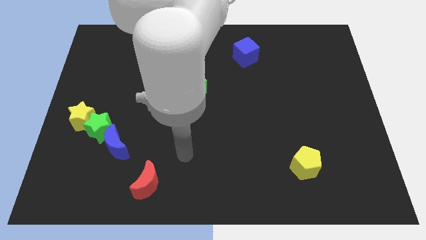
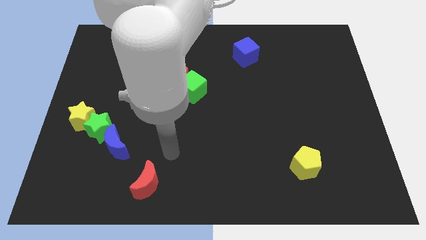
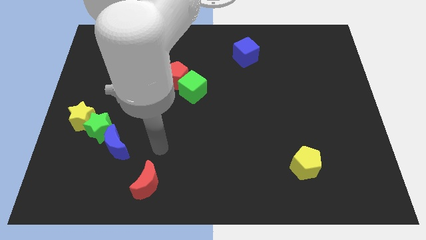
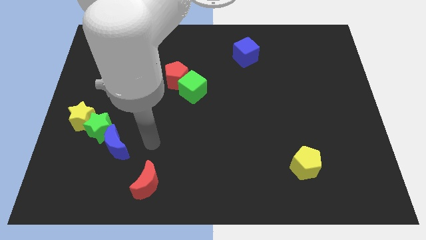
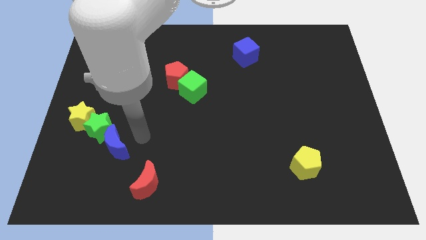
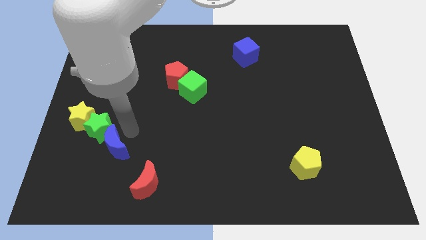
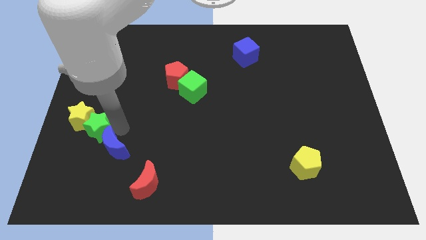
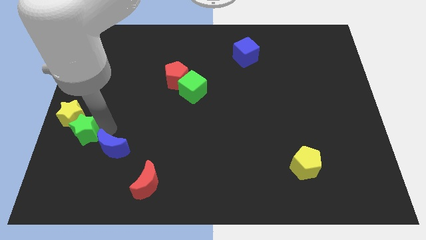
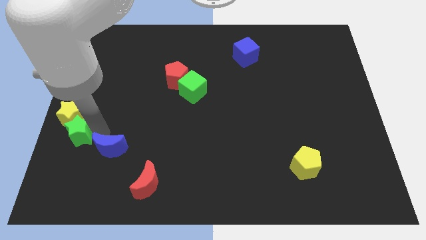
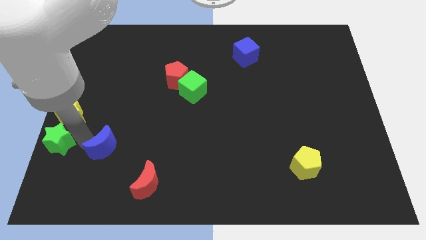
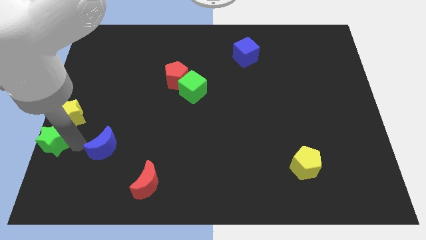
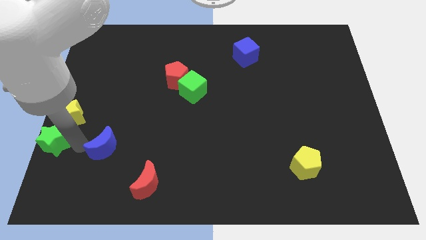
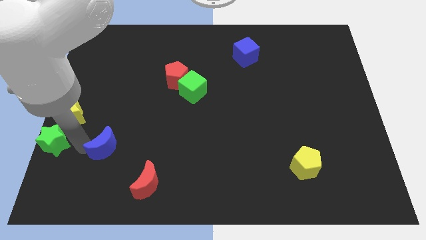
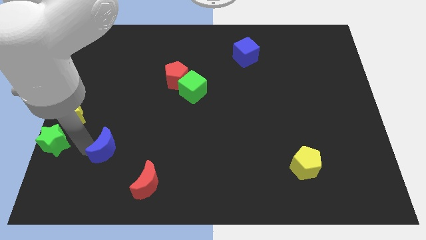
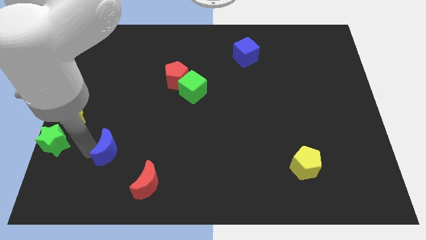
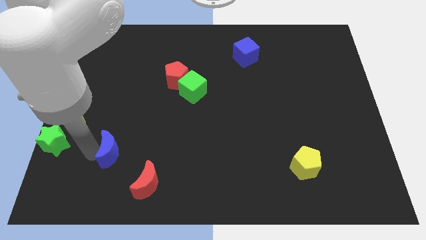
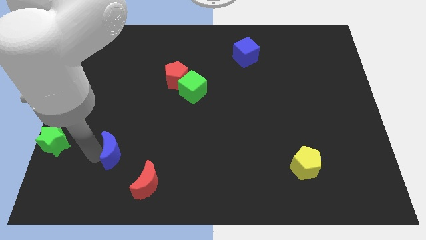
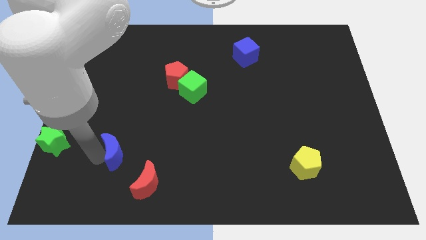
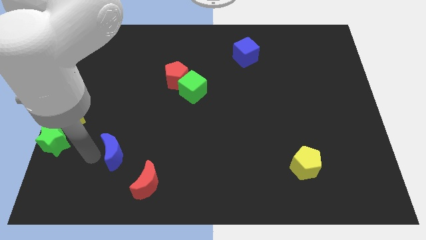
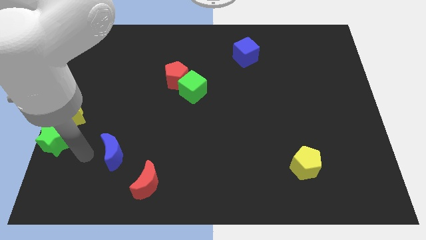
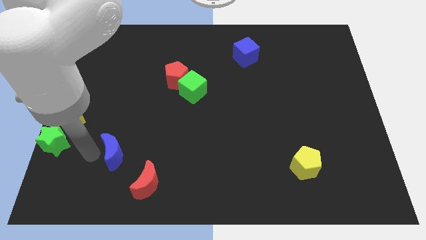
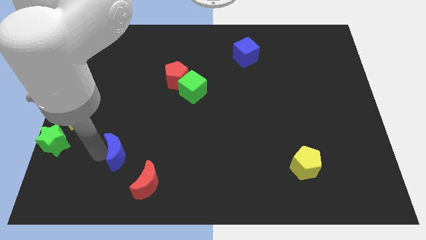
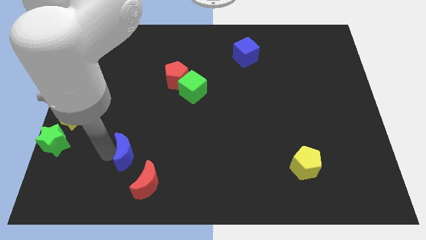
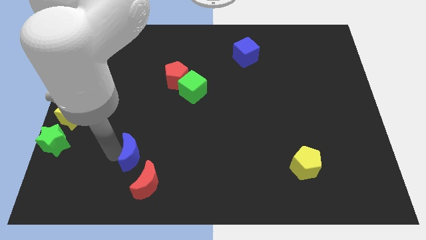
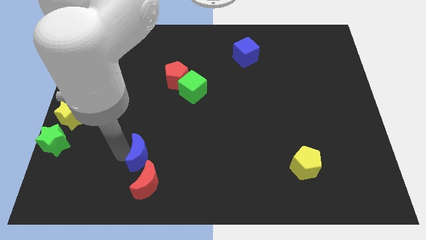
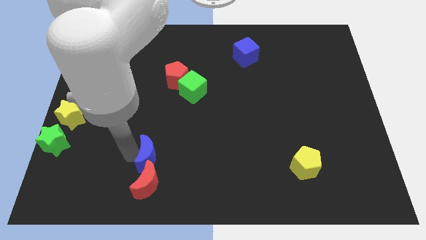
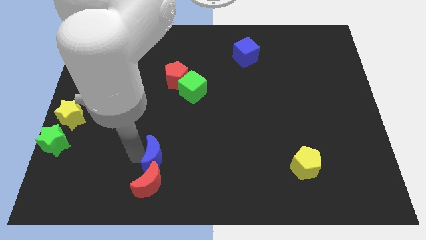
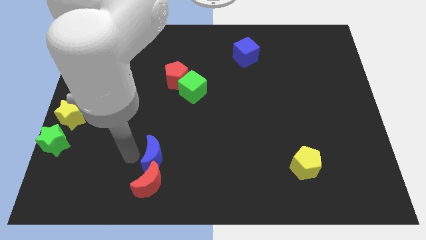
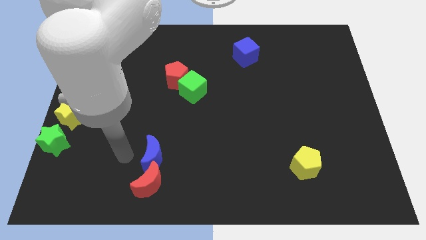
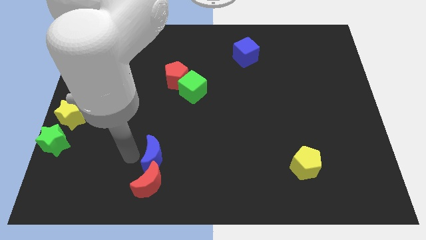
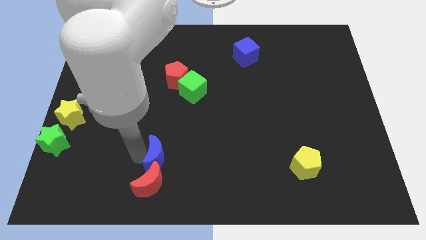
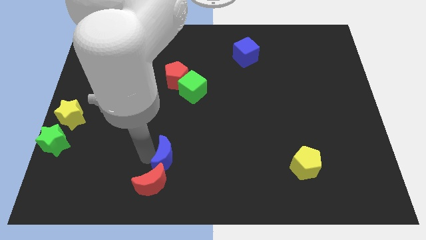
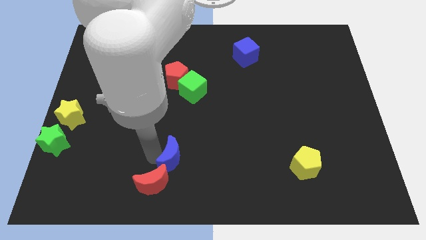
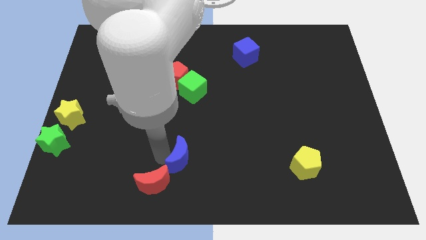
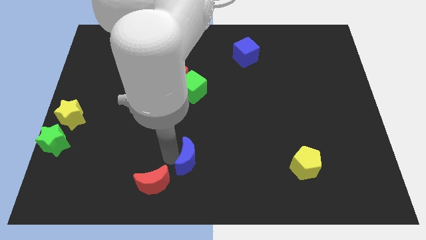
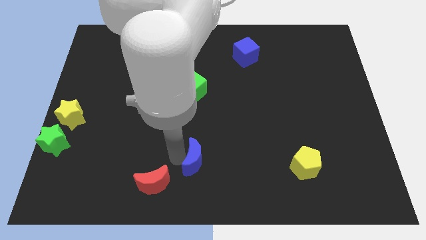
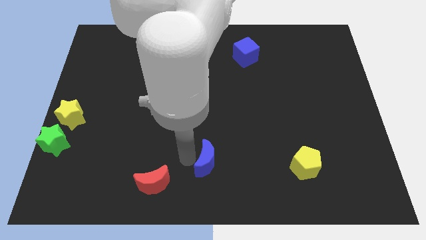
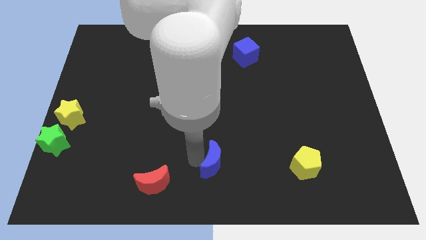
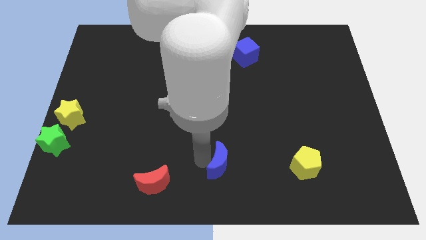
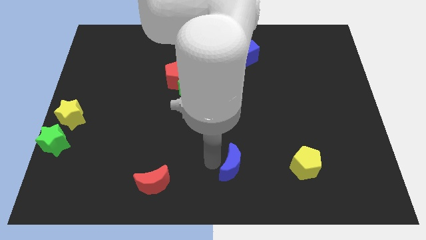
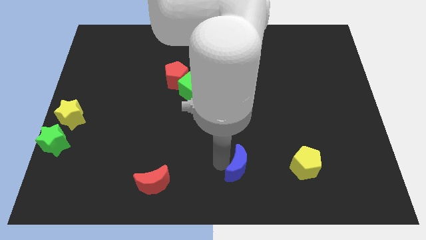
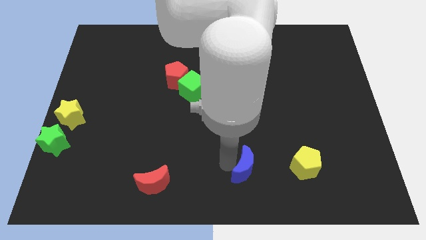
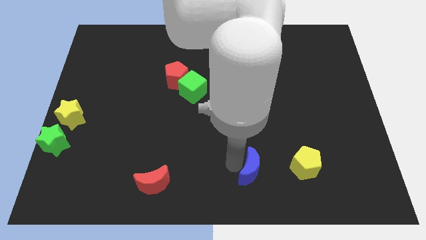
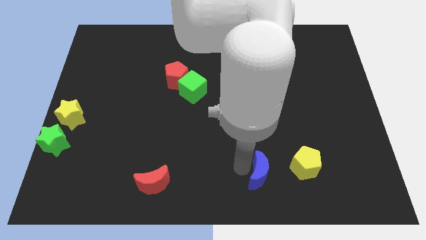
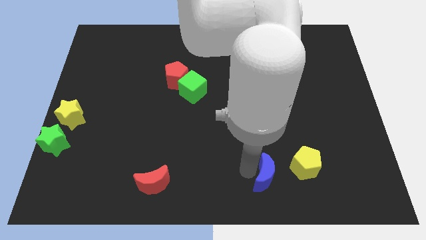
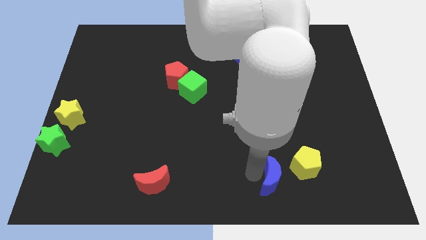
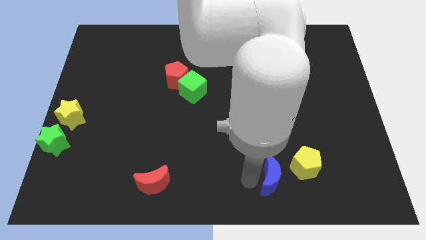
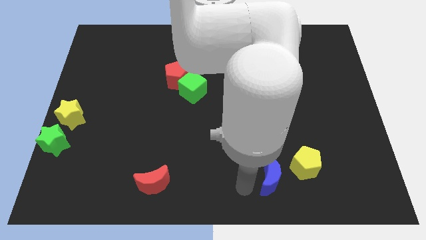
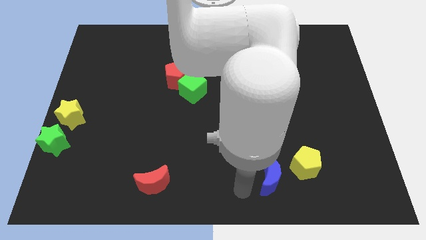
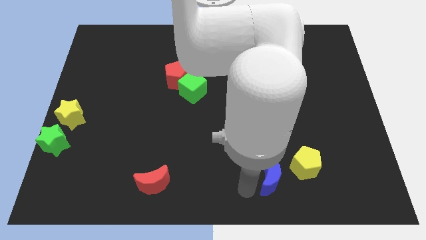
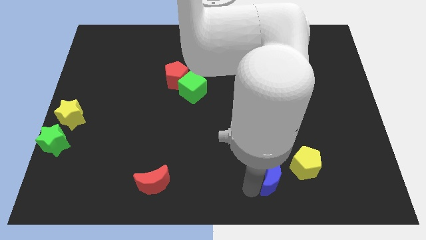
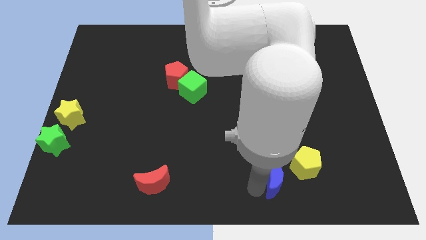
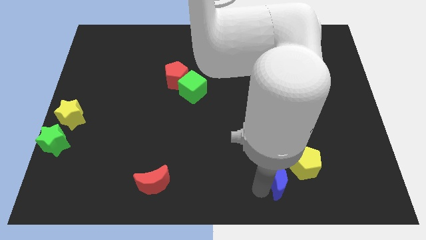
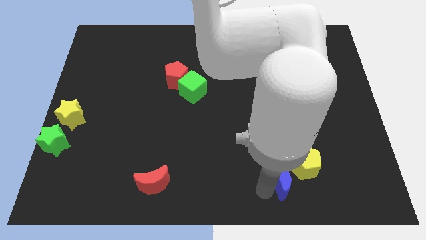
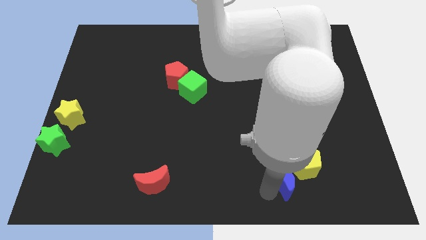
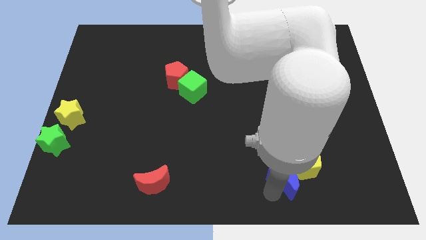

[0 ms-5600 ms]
push the blue moon towards the yellow pentagon
